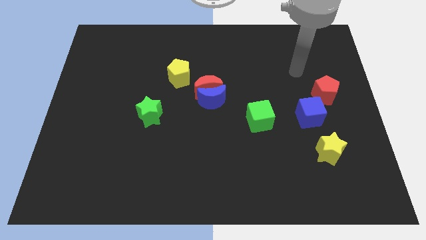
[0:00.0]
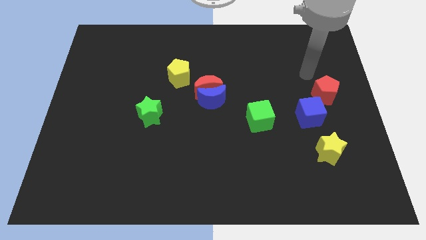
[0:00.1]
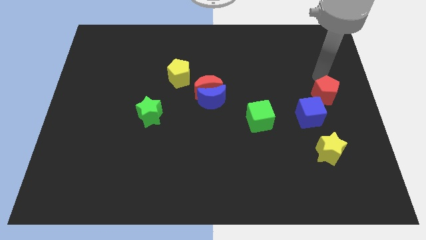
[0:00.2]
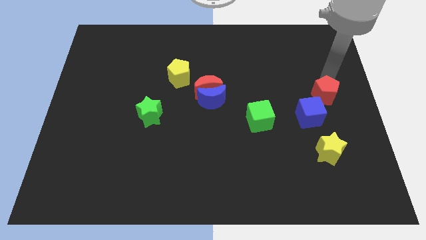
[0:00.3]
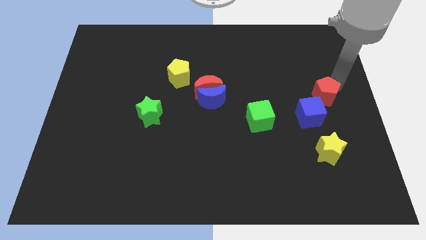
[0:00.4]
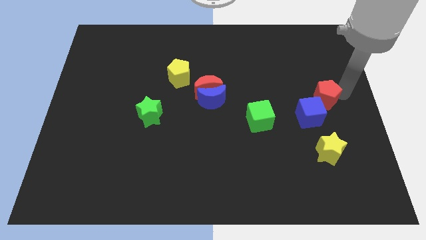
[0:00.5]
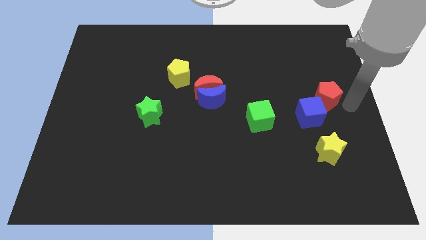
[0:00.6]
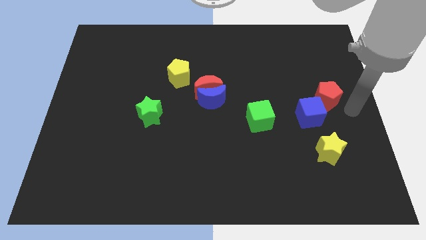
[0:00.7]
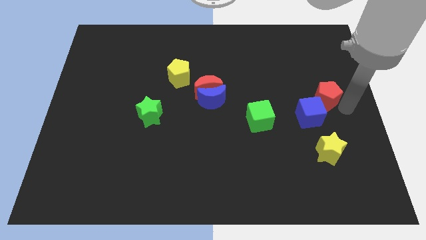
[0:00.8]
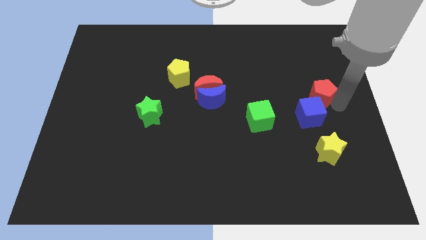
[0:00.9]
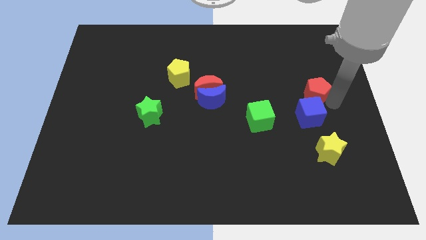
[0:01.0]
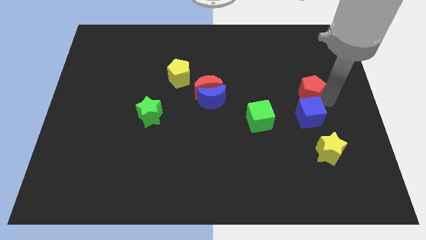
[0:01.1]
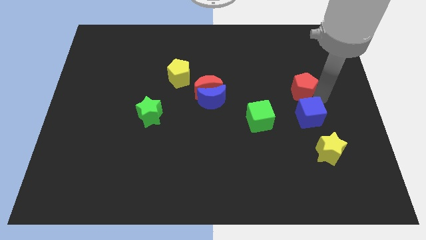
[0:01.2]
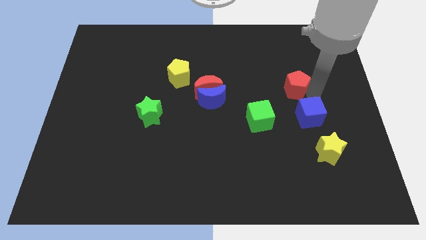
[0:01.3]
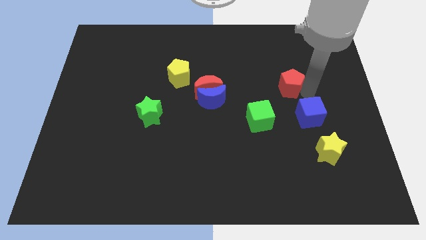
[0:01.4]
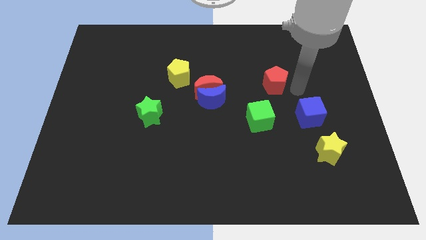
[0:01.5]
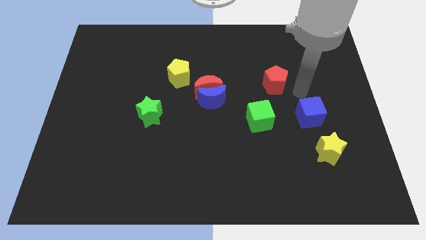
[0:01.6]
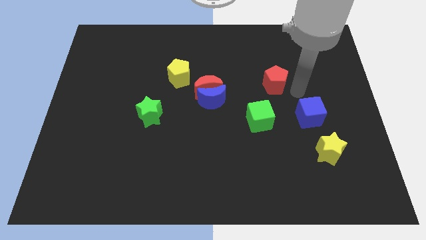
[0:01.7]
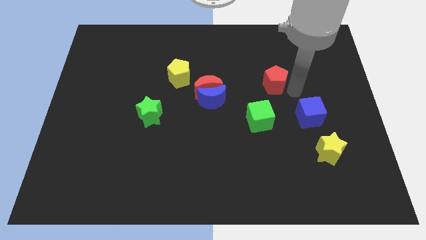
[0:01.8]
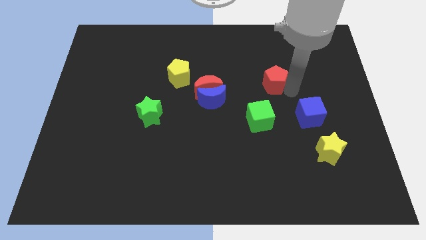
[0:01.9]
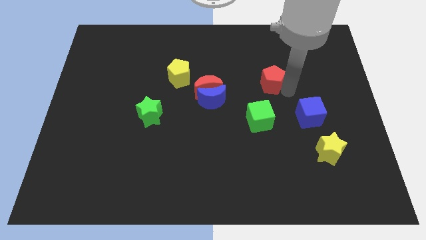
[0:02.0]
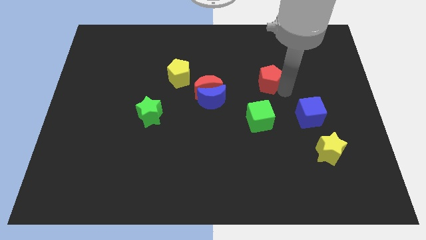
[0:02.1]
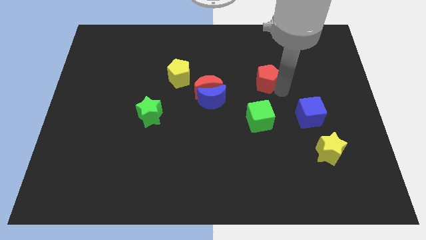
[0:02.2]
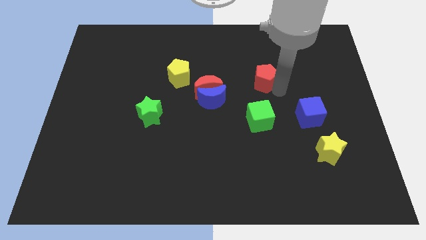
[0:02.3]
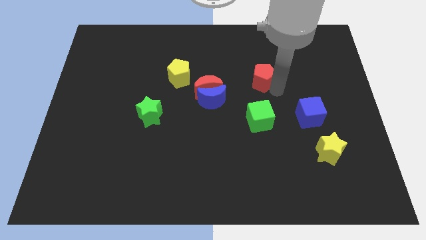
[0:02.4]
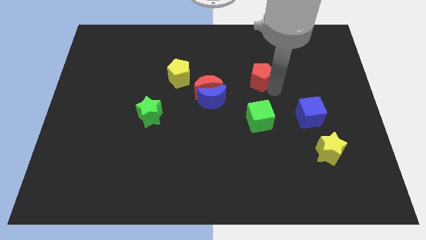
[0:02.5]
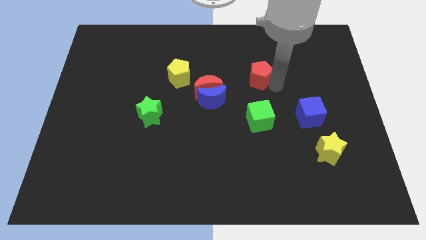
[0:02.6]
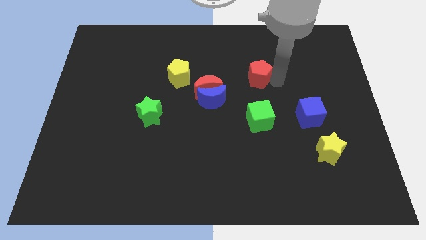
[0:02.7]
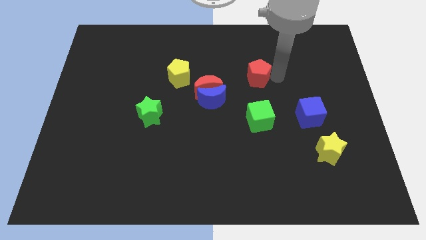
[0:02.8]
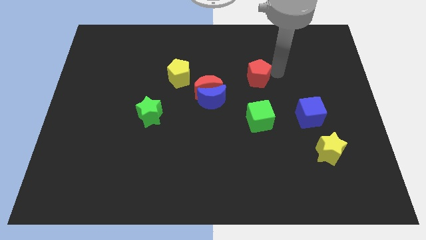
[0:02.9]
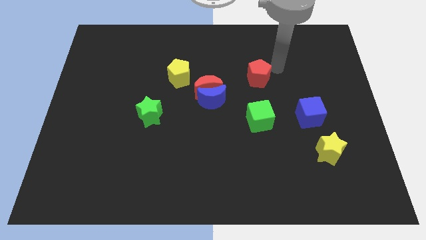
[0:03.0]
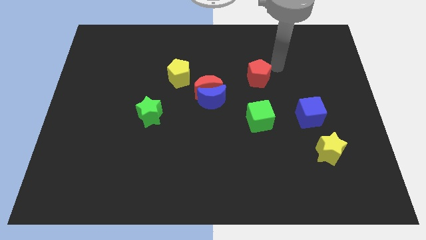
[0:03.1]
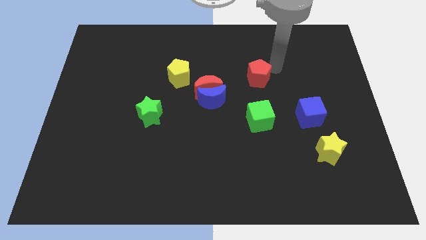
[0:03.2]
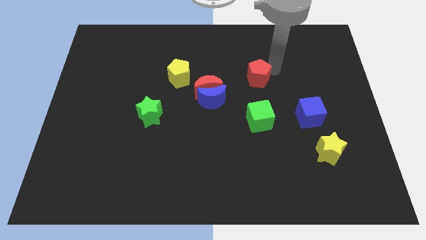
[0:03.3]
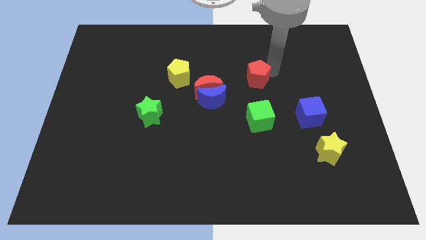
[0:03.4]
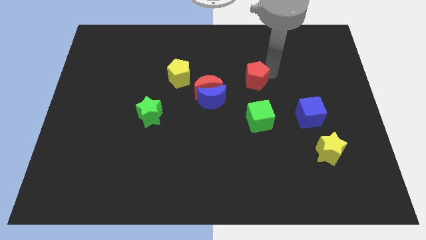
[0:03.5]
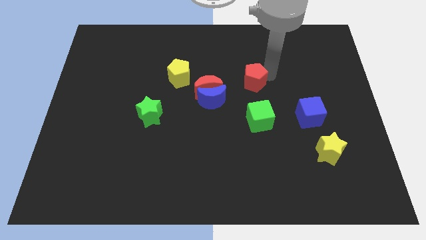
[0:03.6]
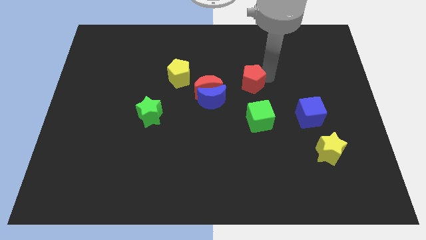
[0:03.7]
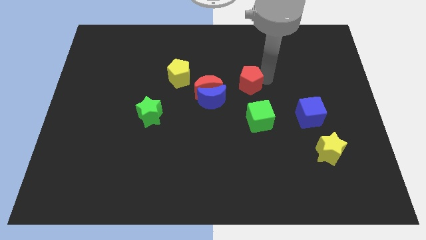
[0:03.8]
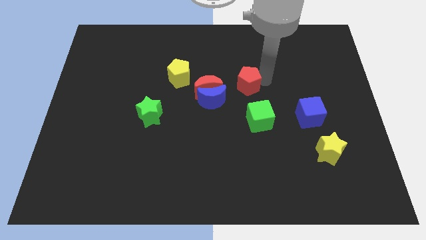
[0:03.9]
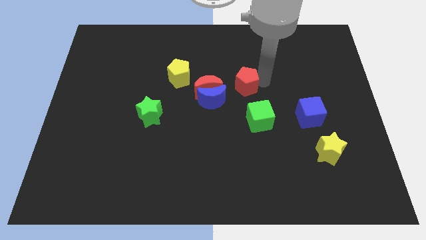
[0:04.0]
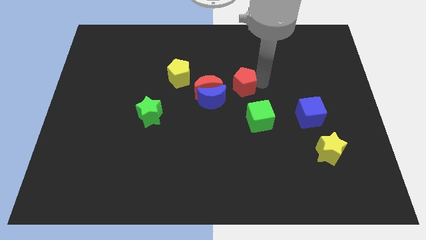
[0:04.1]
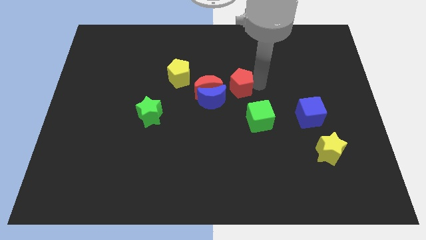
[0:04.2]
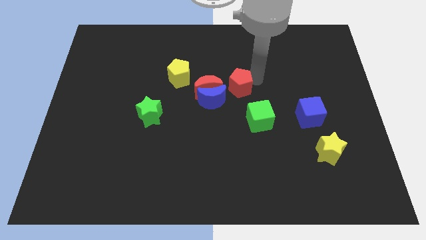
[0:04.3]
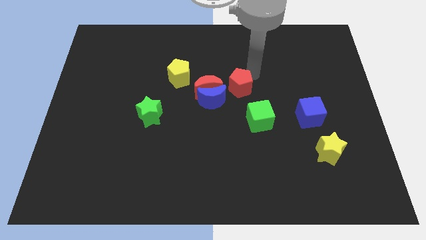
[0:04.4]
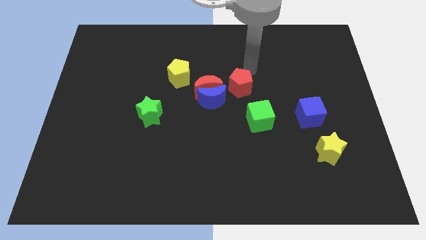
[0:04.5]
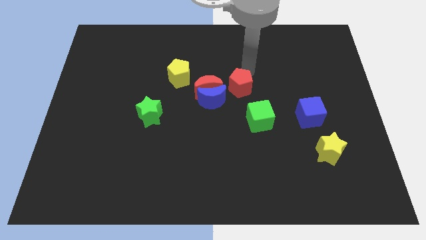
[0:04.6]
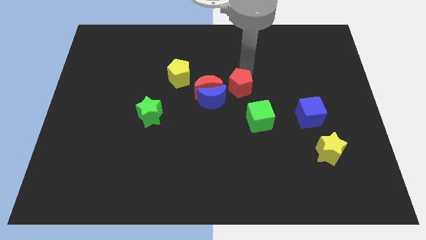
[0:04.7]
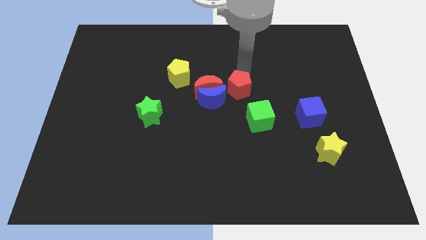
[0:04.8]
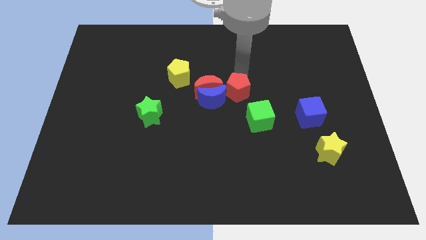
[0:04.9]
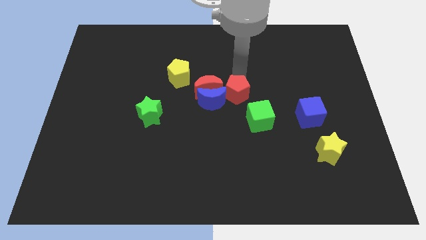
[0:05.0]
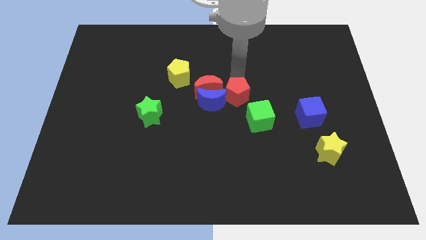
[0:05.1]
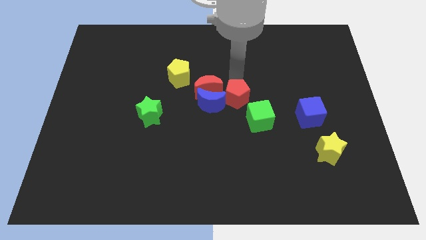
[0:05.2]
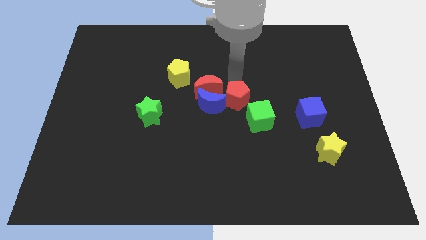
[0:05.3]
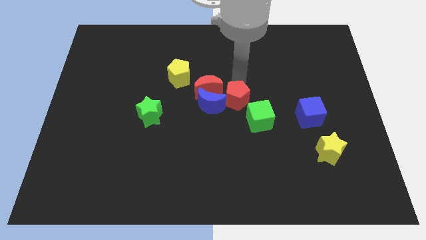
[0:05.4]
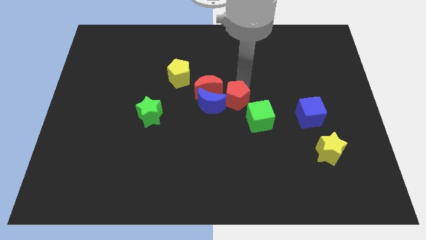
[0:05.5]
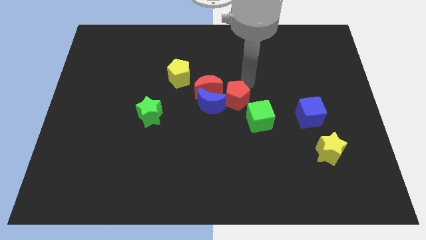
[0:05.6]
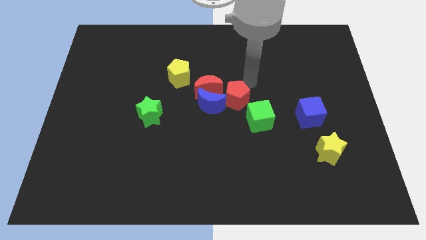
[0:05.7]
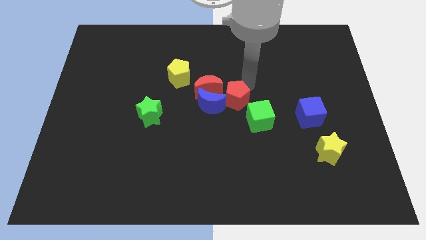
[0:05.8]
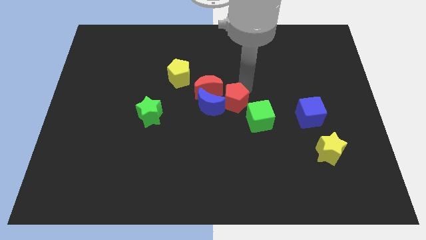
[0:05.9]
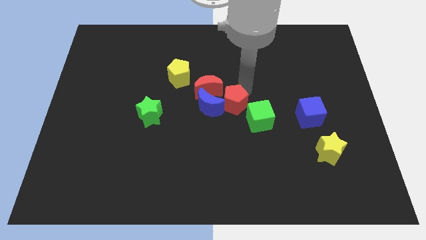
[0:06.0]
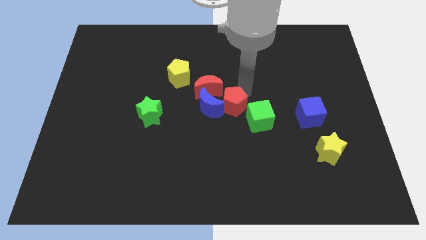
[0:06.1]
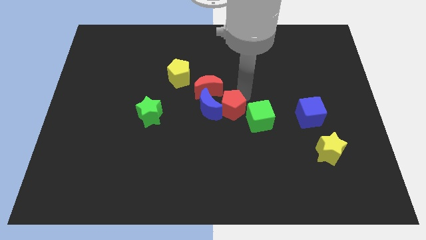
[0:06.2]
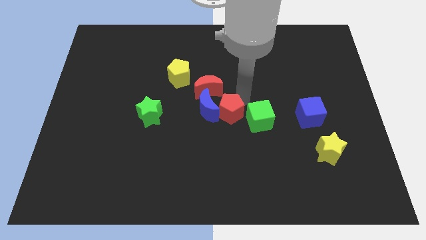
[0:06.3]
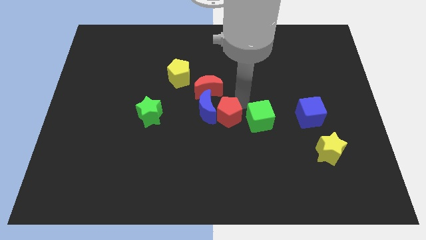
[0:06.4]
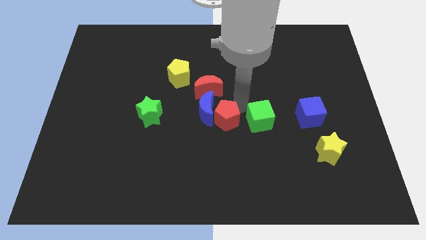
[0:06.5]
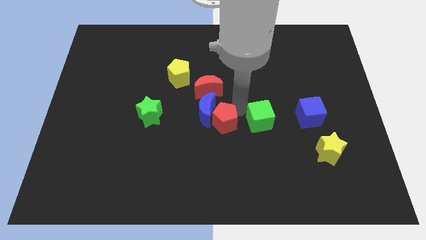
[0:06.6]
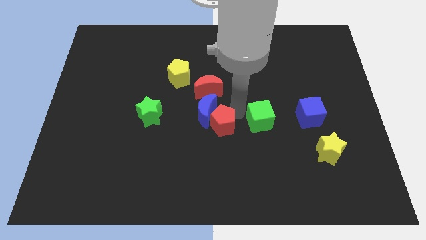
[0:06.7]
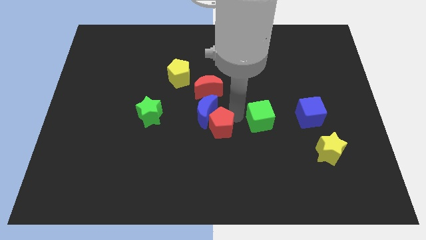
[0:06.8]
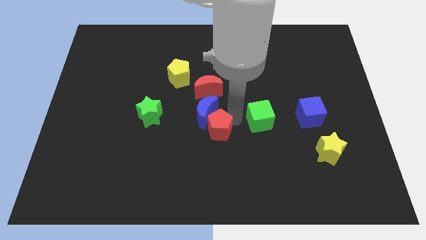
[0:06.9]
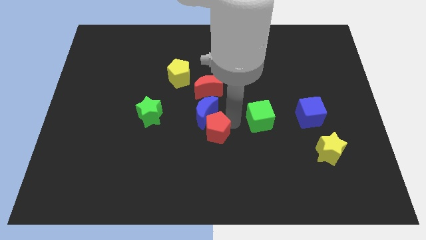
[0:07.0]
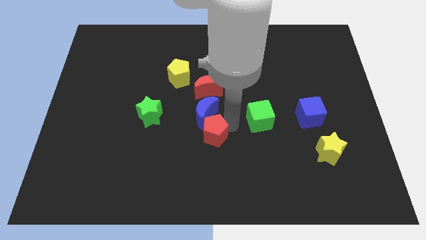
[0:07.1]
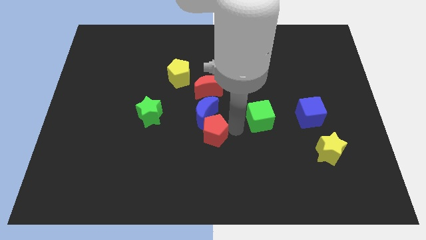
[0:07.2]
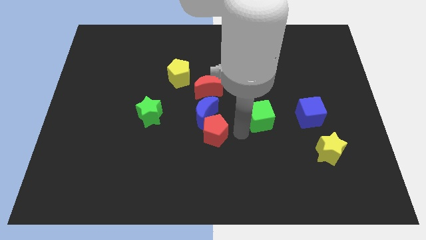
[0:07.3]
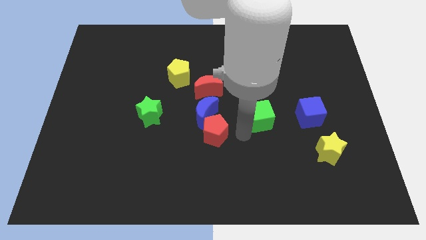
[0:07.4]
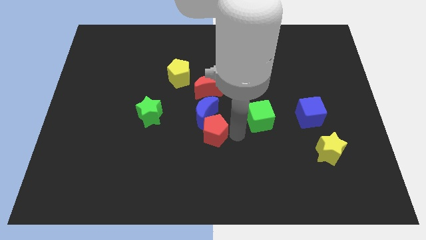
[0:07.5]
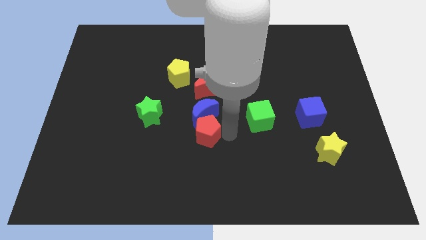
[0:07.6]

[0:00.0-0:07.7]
push the red pentagon diagonally down and to the left of the blue moon
